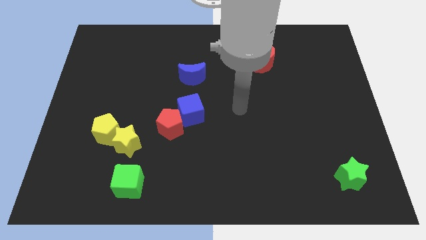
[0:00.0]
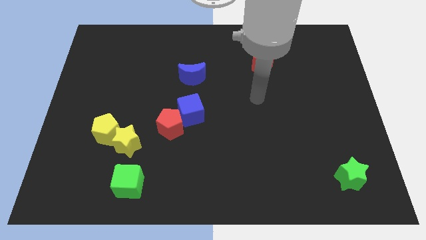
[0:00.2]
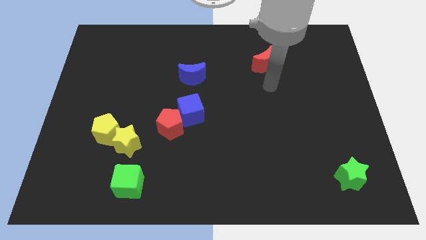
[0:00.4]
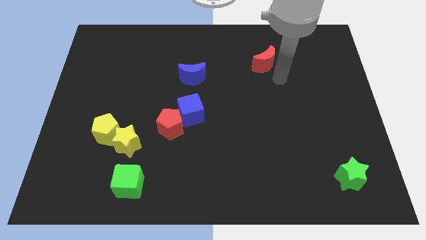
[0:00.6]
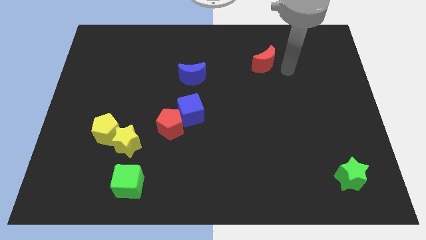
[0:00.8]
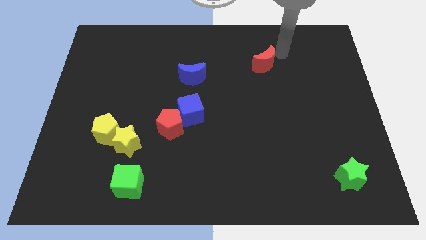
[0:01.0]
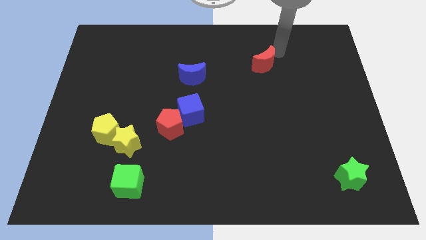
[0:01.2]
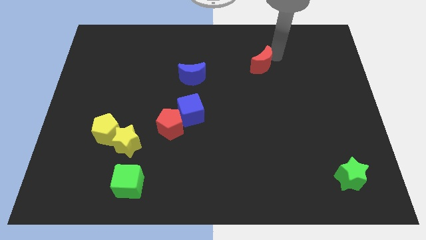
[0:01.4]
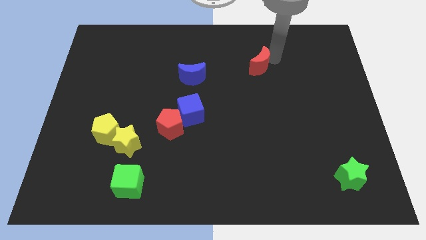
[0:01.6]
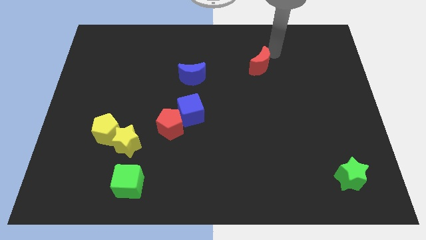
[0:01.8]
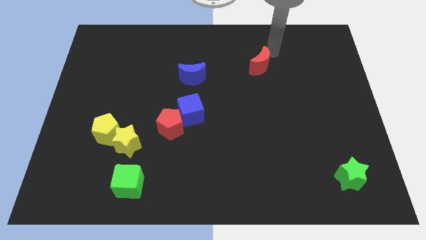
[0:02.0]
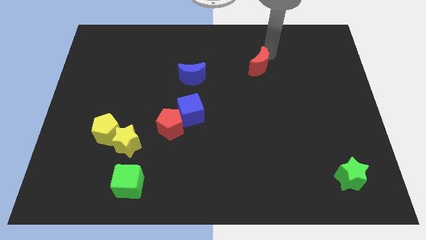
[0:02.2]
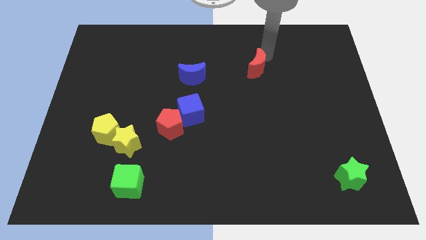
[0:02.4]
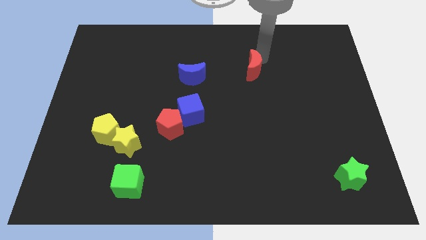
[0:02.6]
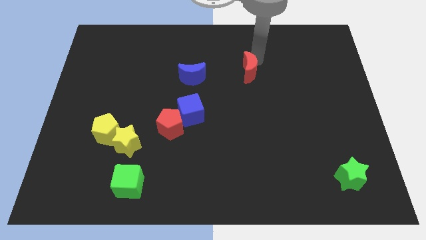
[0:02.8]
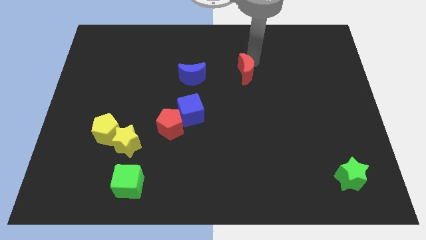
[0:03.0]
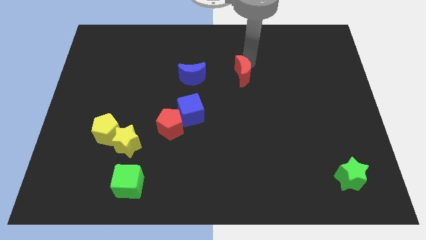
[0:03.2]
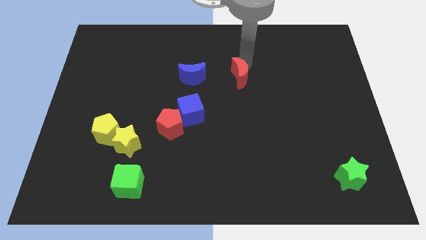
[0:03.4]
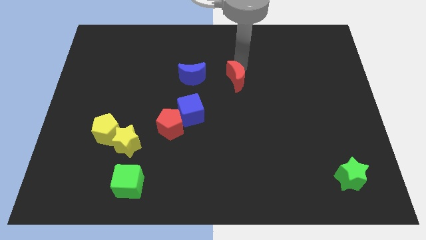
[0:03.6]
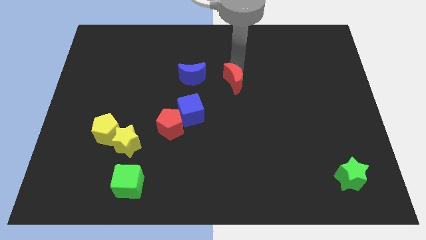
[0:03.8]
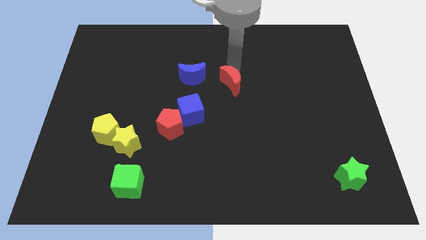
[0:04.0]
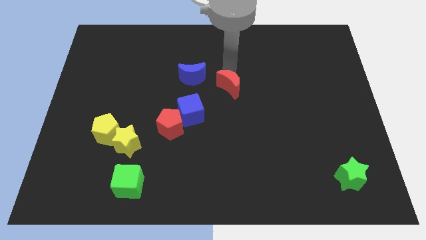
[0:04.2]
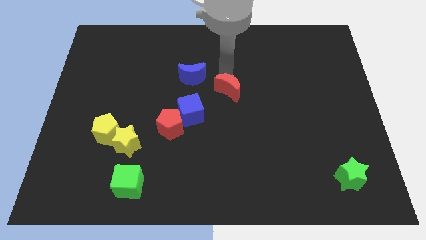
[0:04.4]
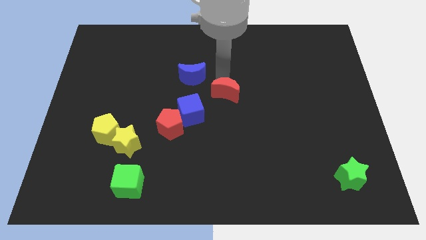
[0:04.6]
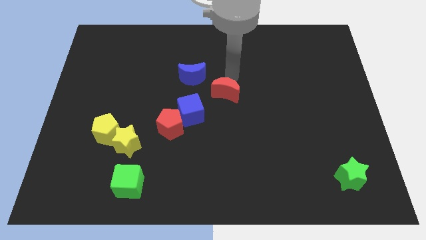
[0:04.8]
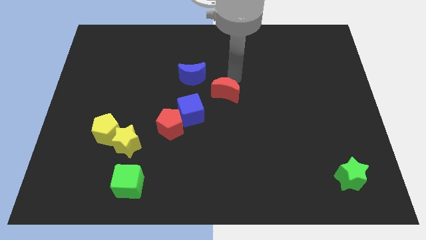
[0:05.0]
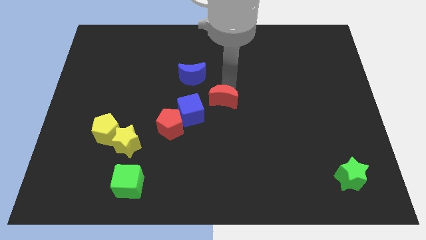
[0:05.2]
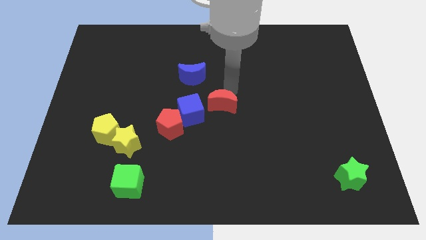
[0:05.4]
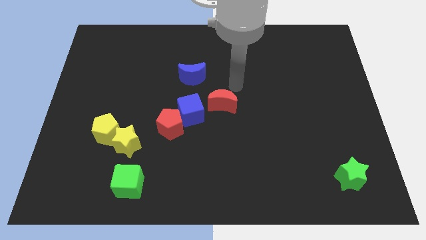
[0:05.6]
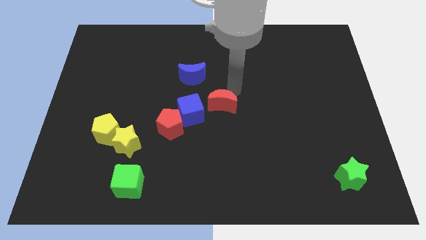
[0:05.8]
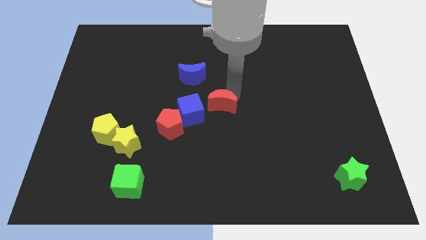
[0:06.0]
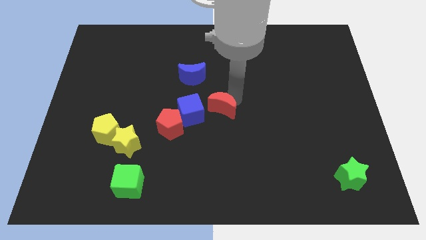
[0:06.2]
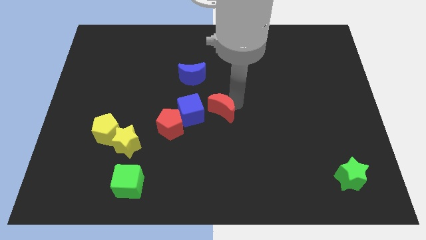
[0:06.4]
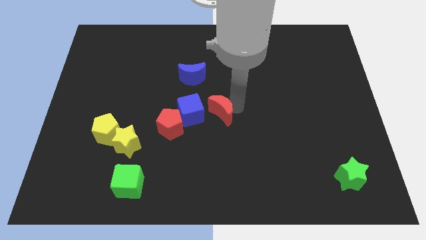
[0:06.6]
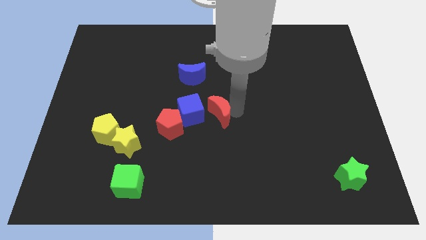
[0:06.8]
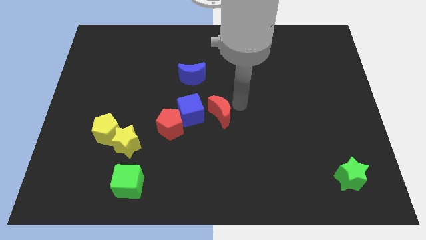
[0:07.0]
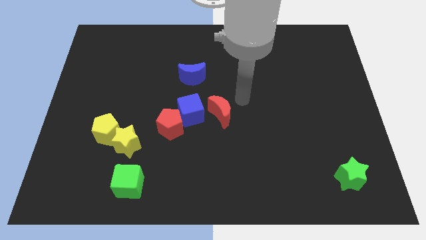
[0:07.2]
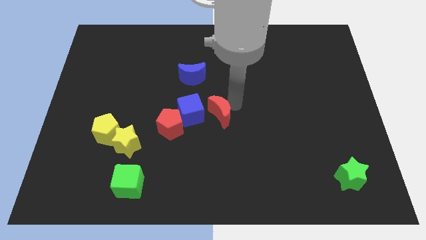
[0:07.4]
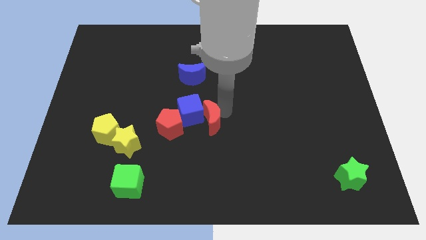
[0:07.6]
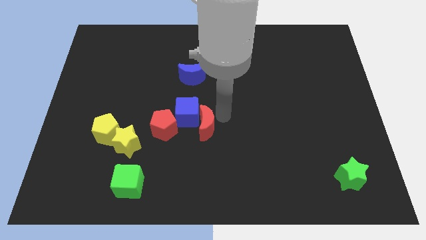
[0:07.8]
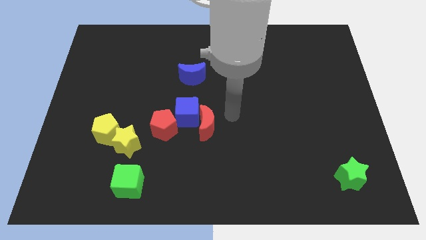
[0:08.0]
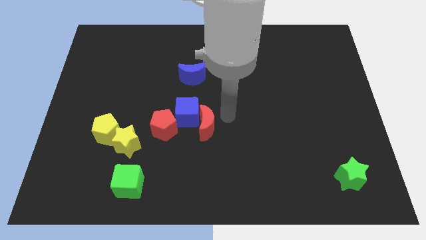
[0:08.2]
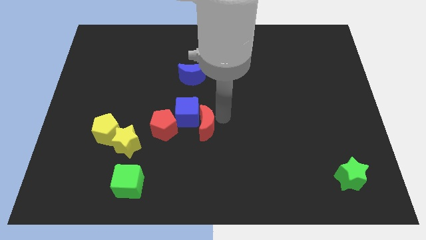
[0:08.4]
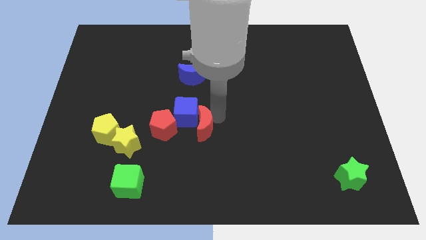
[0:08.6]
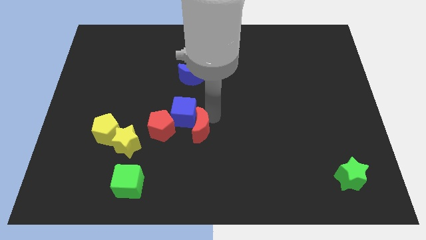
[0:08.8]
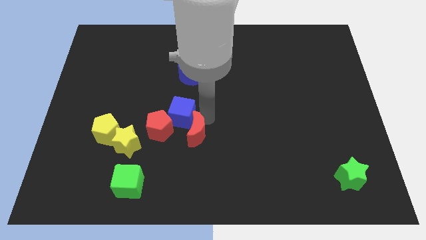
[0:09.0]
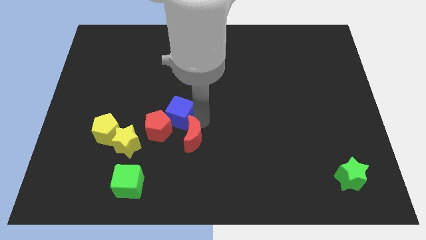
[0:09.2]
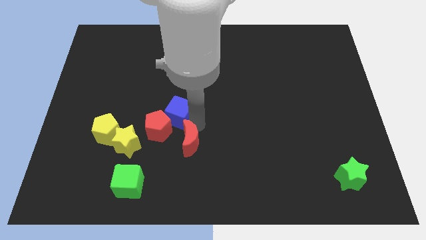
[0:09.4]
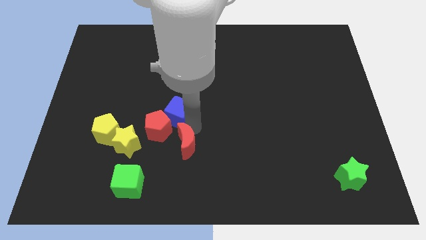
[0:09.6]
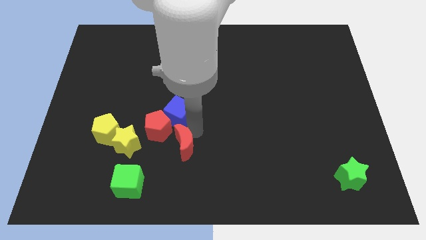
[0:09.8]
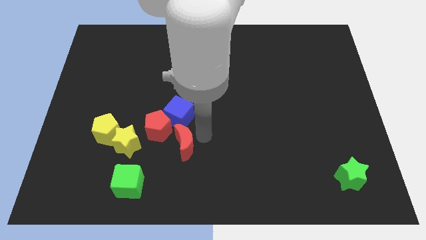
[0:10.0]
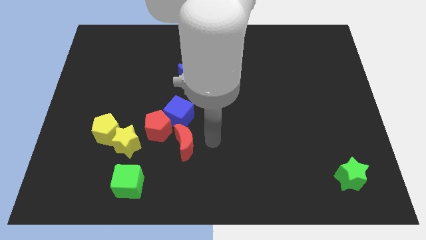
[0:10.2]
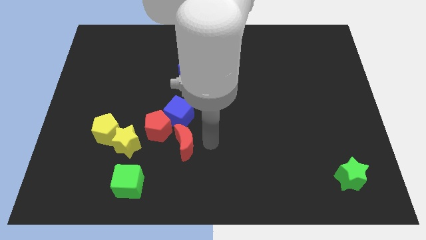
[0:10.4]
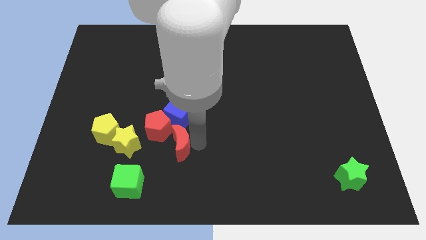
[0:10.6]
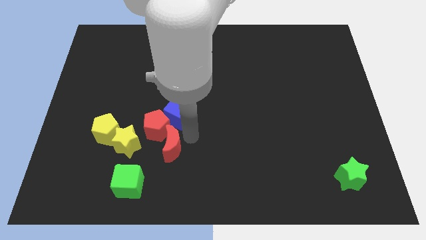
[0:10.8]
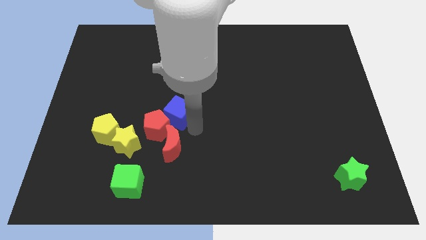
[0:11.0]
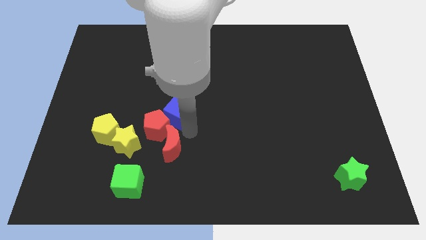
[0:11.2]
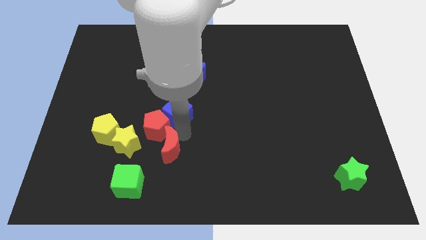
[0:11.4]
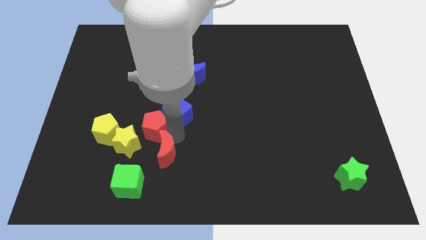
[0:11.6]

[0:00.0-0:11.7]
slide the red moon diagonally down and to the right of the yellow star

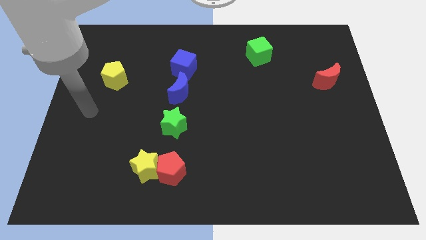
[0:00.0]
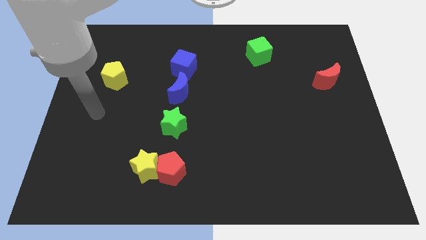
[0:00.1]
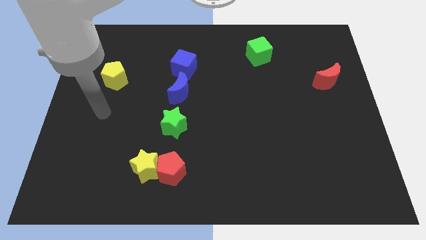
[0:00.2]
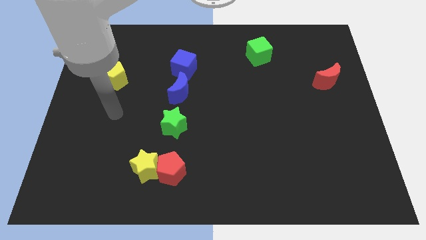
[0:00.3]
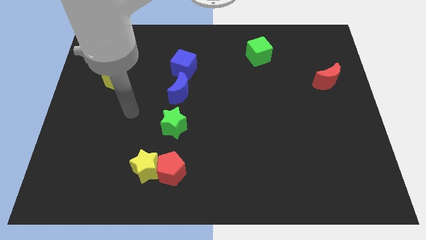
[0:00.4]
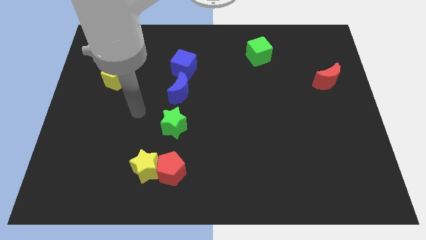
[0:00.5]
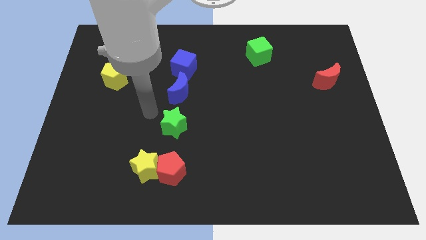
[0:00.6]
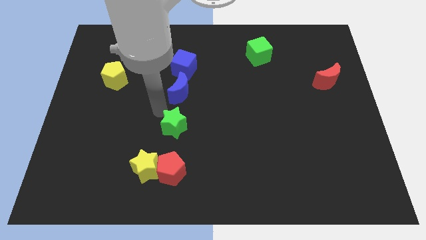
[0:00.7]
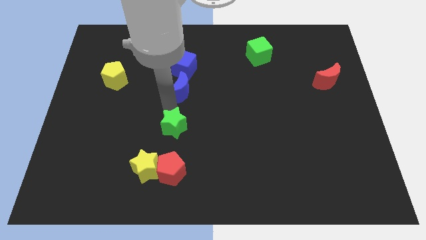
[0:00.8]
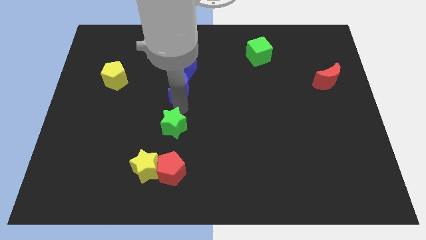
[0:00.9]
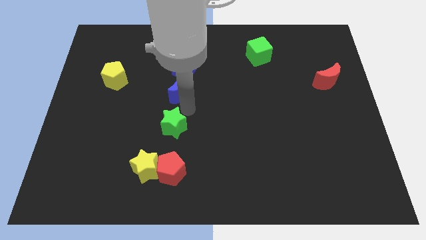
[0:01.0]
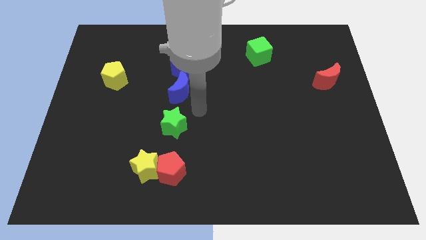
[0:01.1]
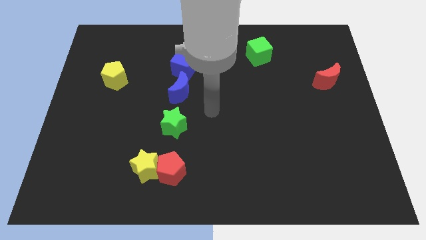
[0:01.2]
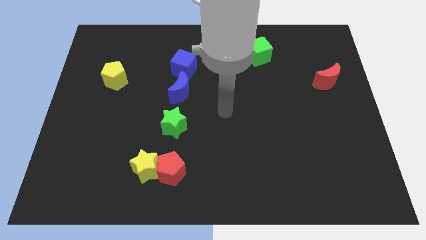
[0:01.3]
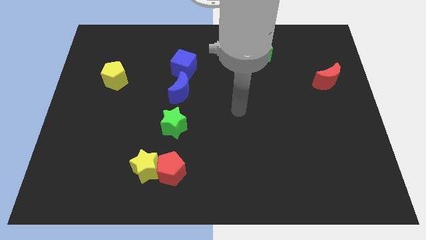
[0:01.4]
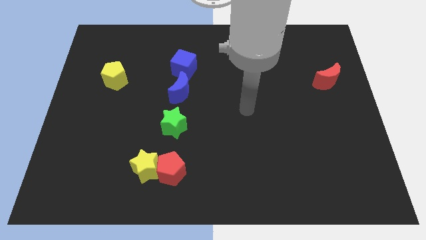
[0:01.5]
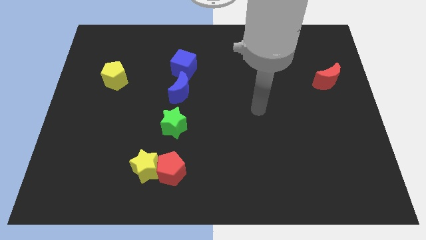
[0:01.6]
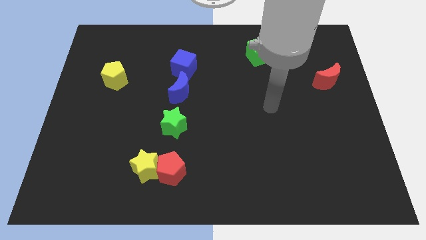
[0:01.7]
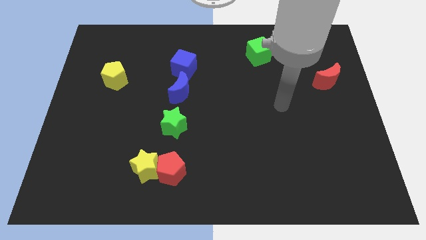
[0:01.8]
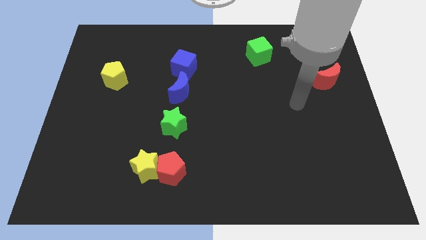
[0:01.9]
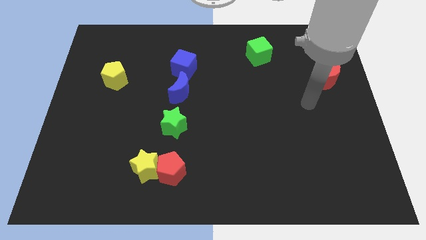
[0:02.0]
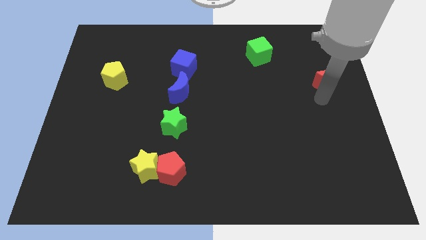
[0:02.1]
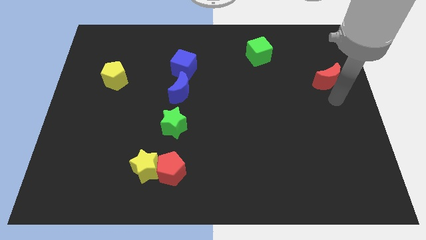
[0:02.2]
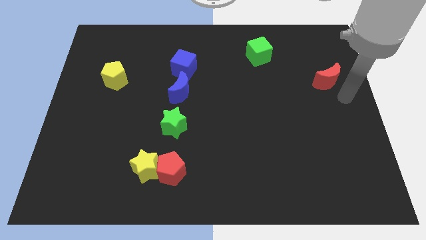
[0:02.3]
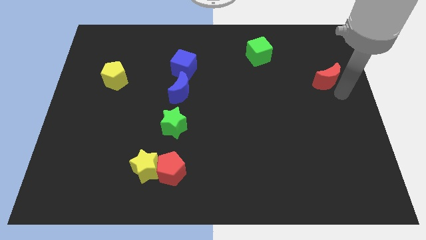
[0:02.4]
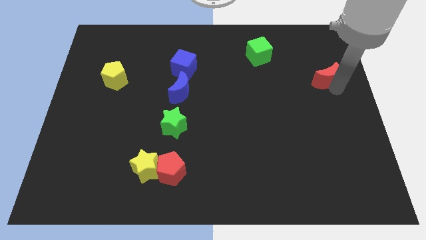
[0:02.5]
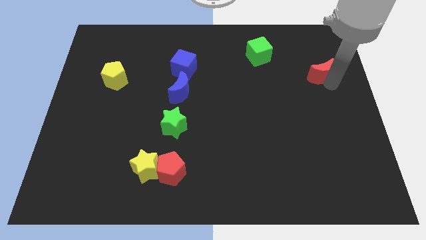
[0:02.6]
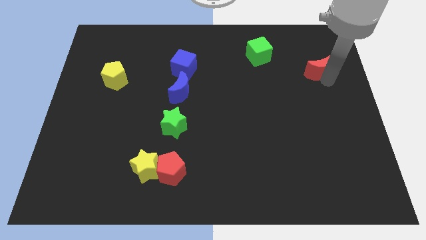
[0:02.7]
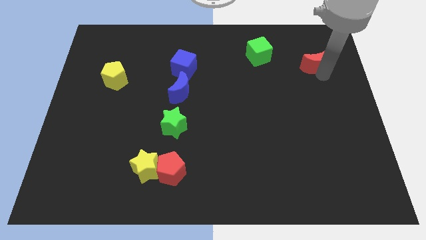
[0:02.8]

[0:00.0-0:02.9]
move the red moon right of the green cube
